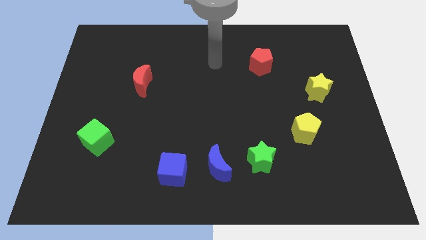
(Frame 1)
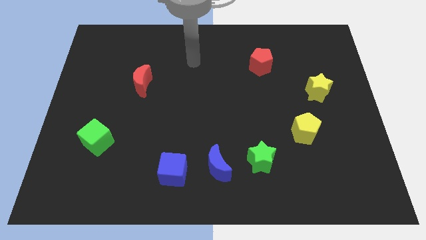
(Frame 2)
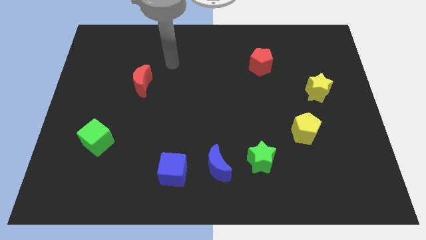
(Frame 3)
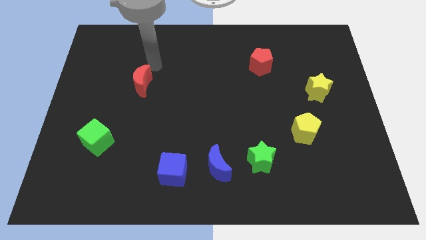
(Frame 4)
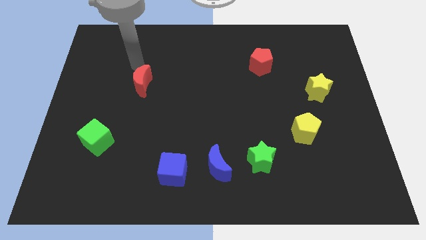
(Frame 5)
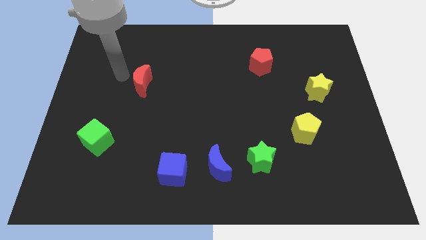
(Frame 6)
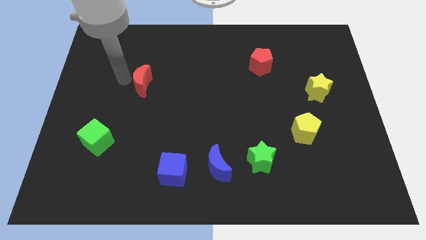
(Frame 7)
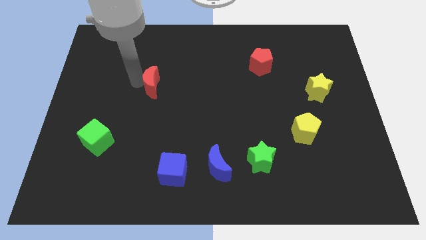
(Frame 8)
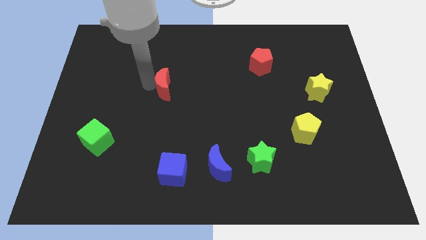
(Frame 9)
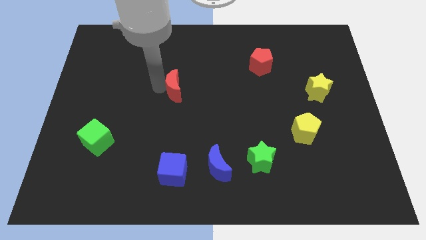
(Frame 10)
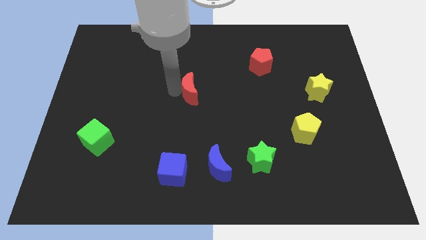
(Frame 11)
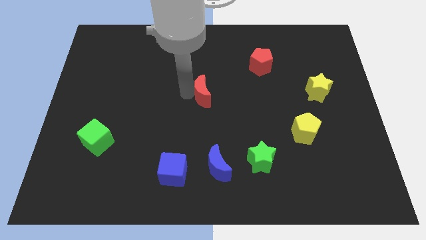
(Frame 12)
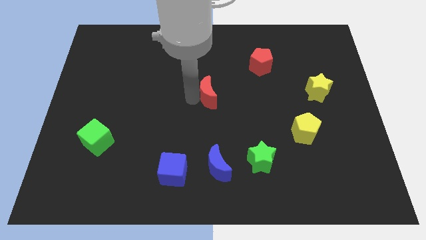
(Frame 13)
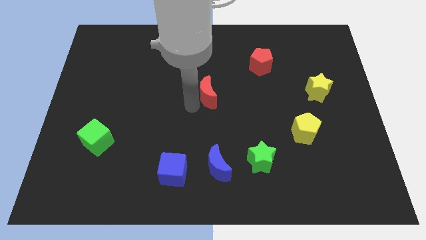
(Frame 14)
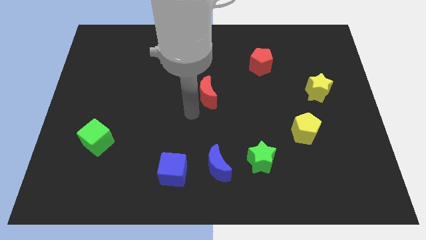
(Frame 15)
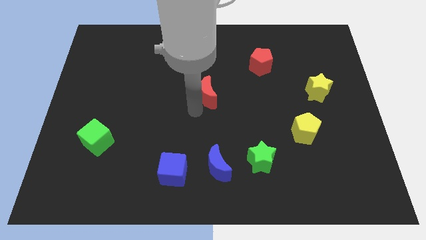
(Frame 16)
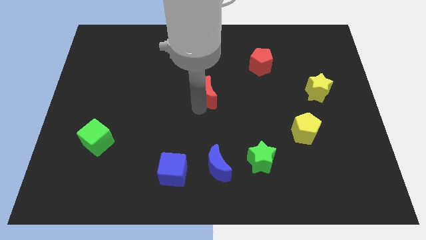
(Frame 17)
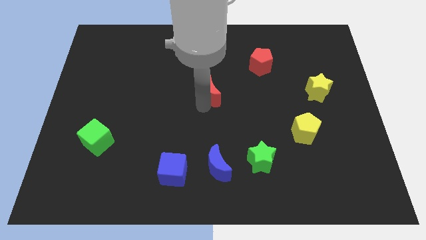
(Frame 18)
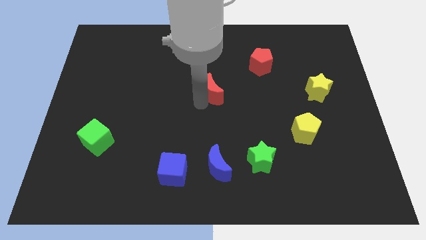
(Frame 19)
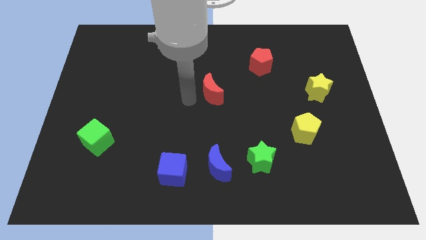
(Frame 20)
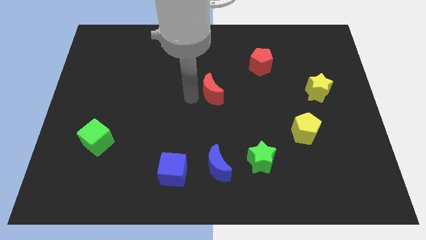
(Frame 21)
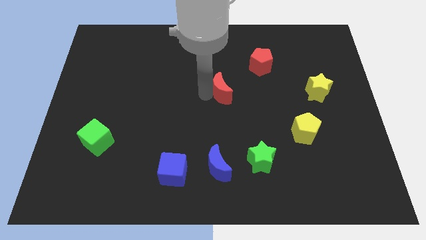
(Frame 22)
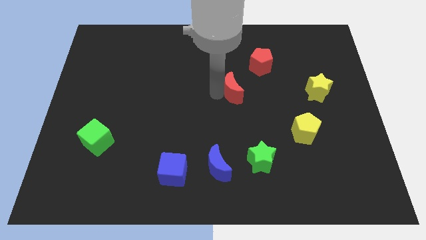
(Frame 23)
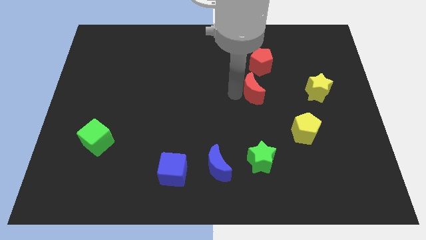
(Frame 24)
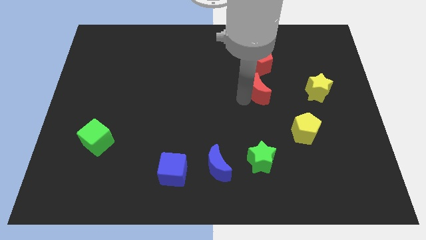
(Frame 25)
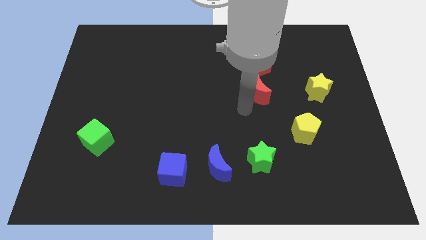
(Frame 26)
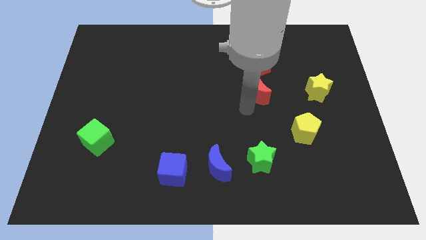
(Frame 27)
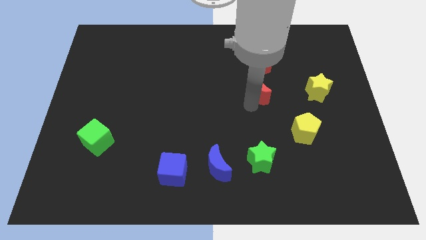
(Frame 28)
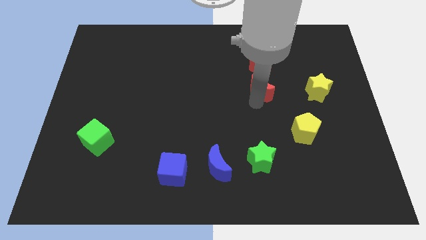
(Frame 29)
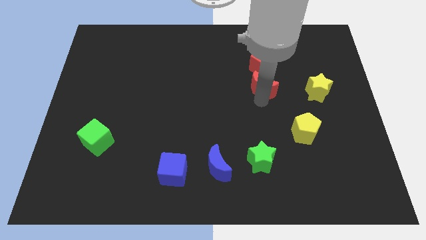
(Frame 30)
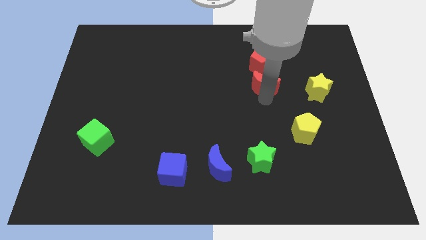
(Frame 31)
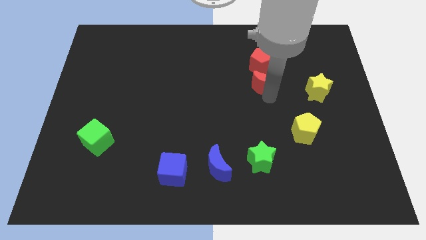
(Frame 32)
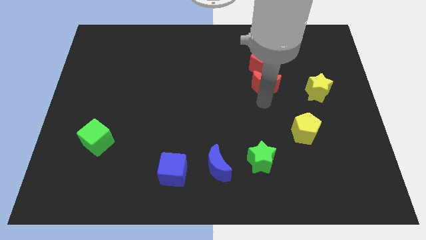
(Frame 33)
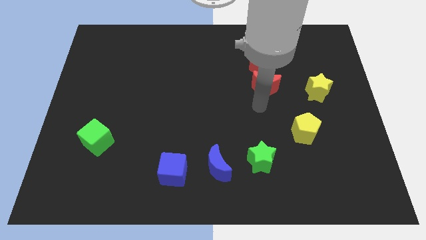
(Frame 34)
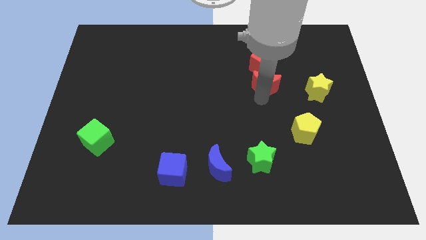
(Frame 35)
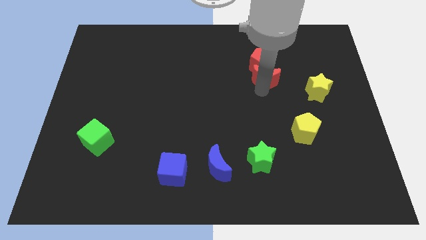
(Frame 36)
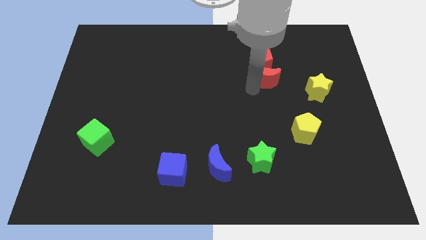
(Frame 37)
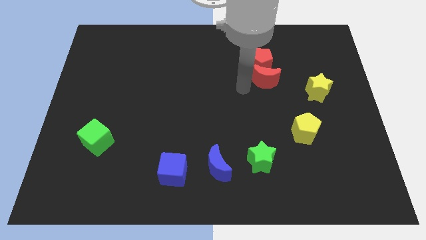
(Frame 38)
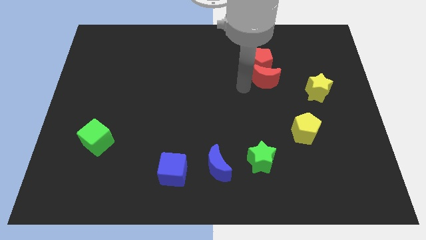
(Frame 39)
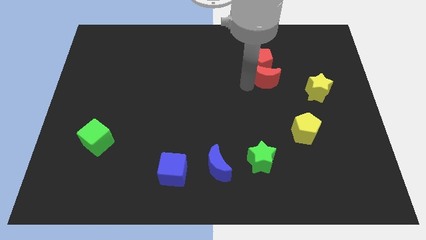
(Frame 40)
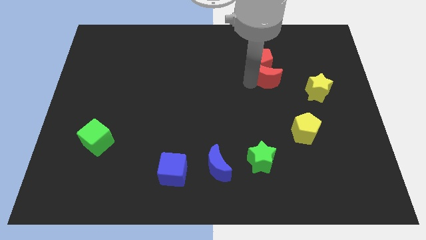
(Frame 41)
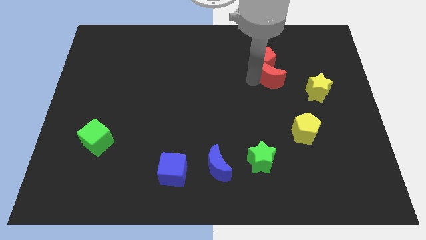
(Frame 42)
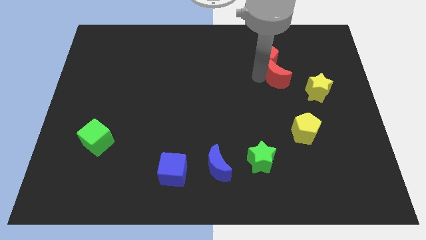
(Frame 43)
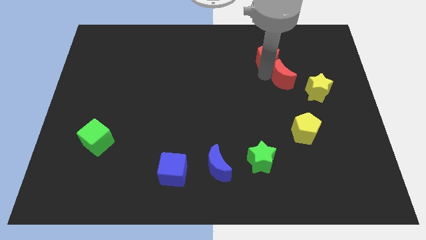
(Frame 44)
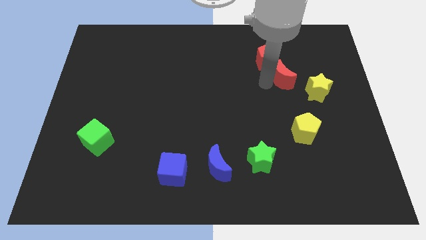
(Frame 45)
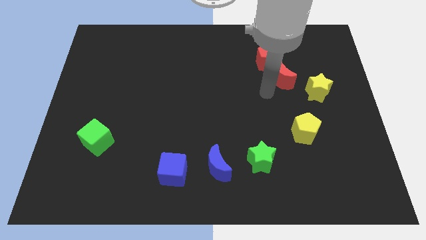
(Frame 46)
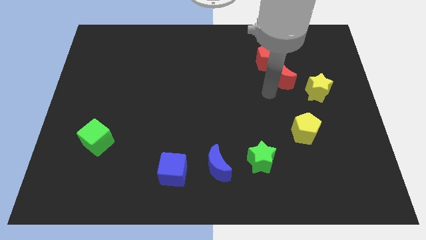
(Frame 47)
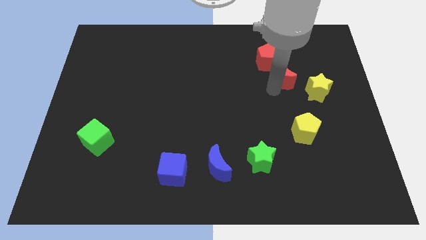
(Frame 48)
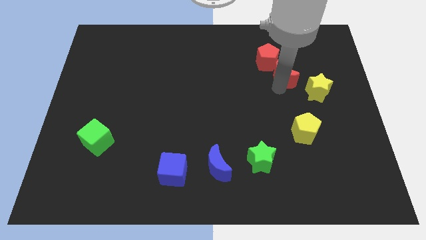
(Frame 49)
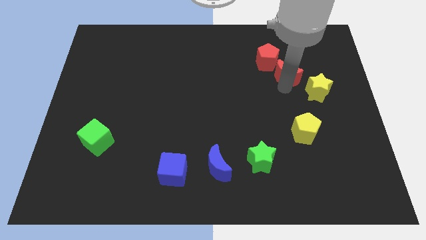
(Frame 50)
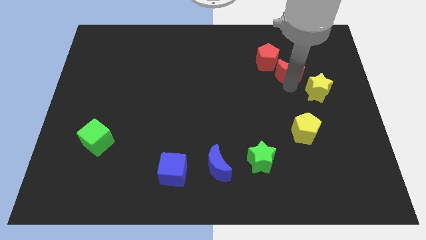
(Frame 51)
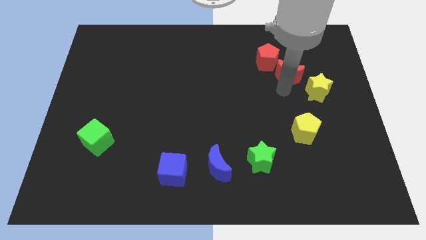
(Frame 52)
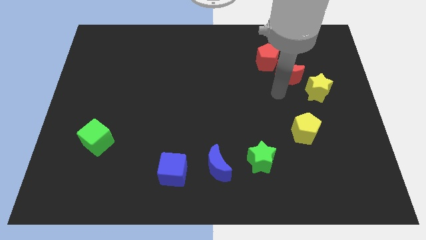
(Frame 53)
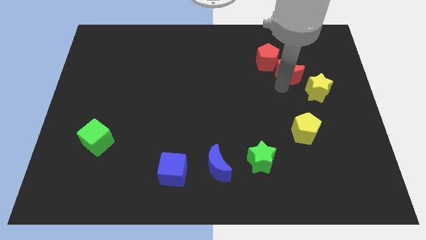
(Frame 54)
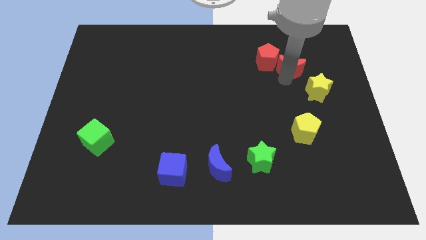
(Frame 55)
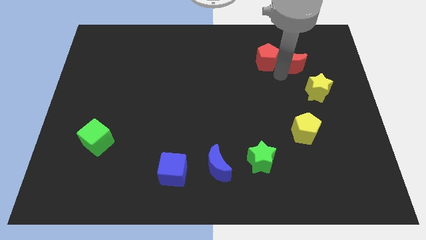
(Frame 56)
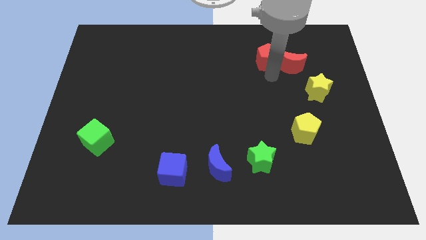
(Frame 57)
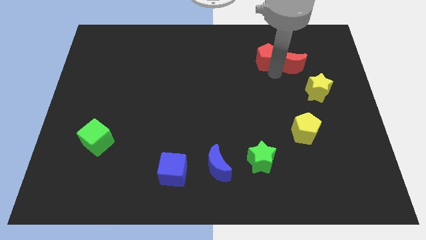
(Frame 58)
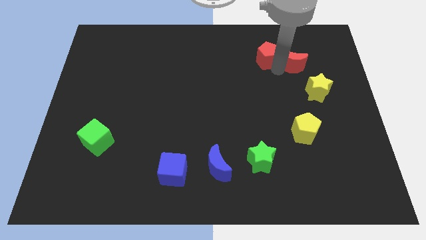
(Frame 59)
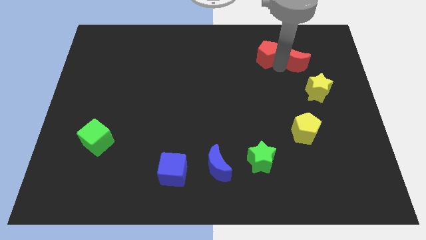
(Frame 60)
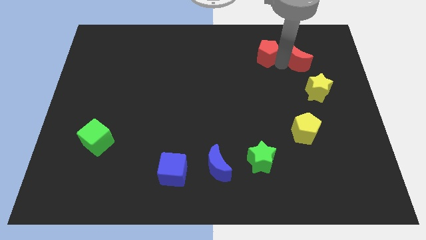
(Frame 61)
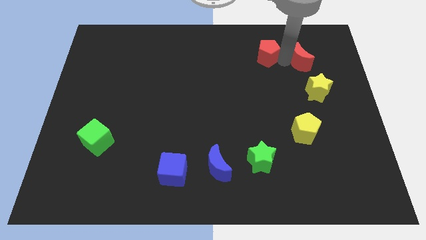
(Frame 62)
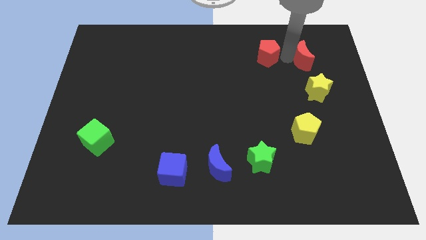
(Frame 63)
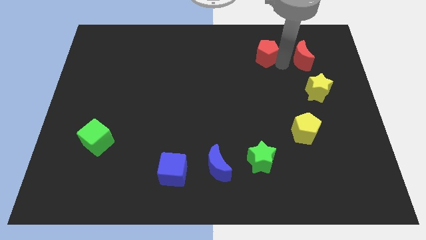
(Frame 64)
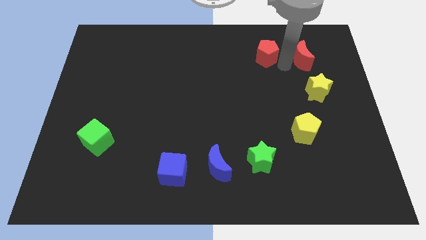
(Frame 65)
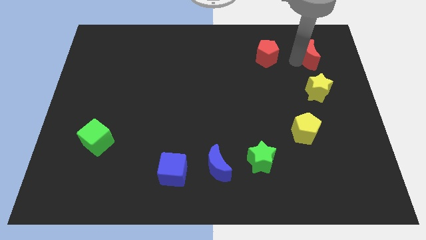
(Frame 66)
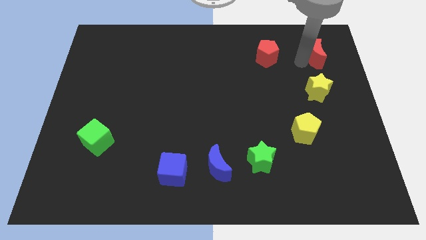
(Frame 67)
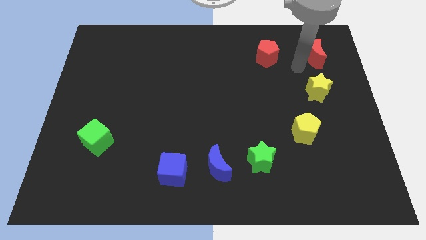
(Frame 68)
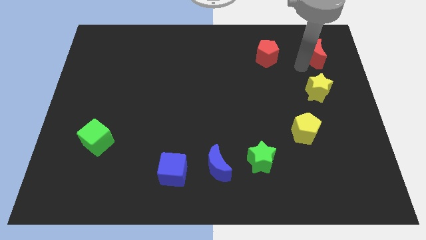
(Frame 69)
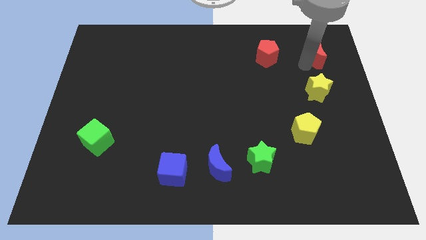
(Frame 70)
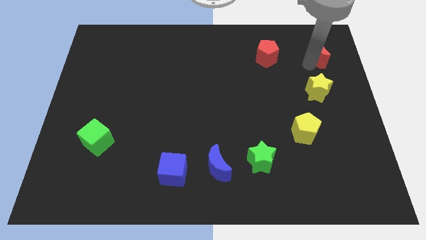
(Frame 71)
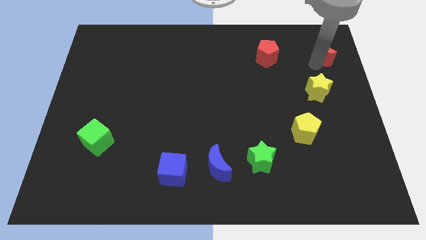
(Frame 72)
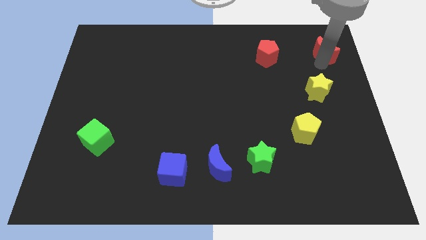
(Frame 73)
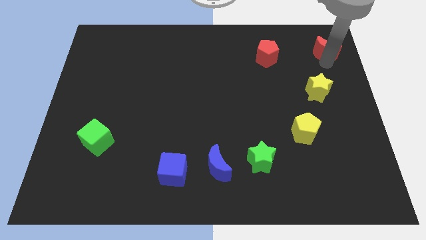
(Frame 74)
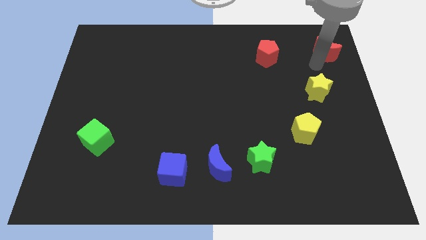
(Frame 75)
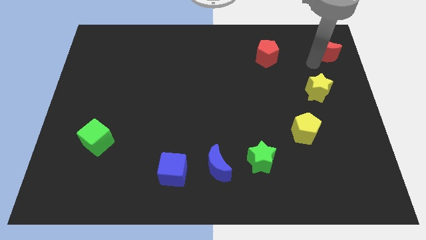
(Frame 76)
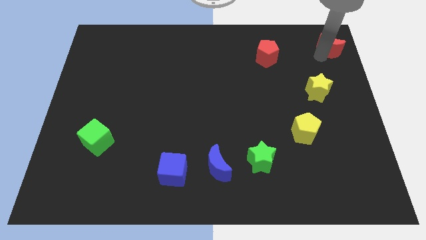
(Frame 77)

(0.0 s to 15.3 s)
put the red moon to the top right corner
